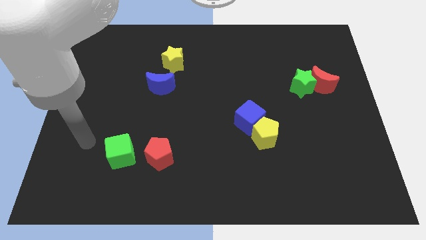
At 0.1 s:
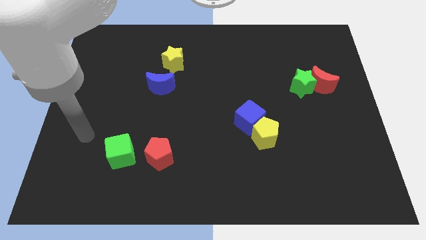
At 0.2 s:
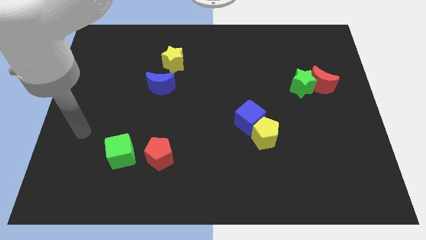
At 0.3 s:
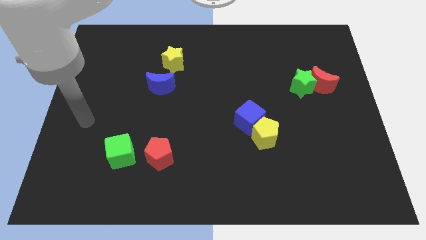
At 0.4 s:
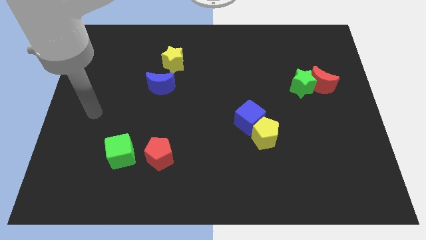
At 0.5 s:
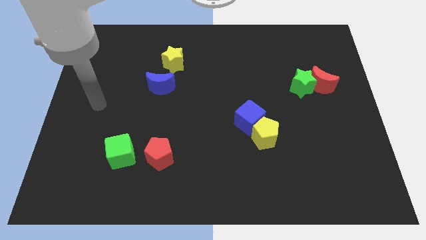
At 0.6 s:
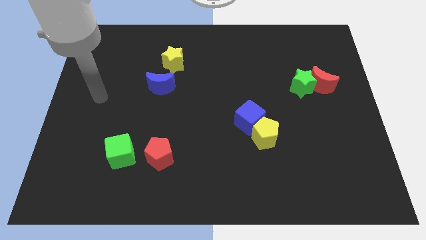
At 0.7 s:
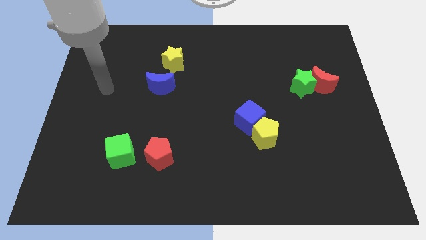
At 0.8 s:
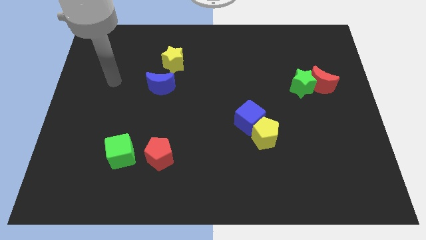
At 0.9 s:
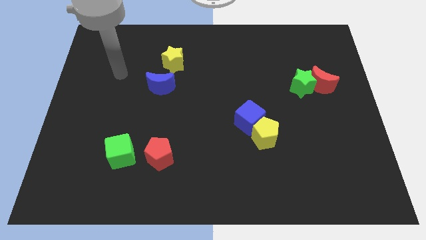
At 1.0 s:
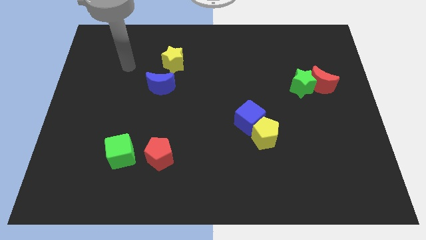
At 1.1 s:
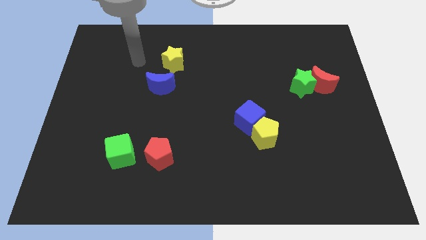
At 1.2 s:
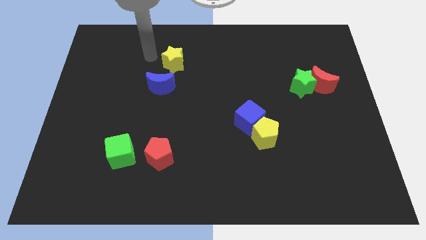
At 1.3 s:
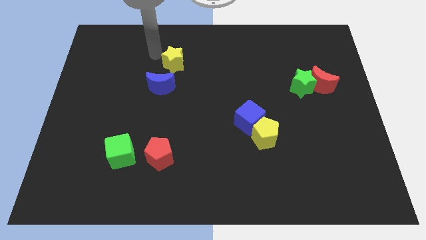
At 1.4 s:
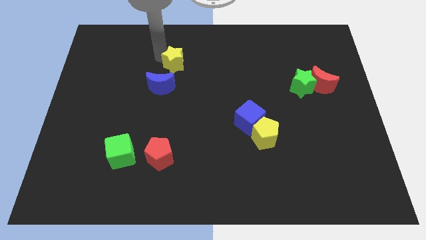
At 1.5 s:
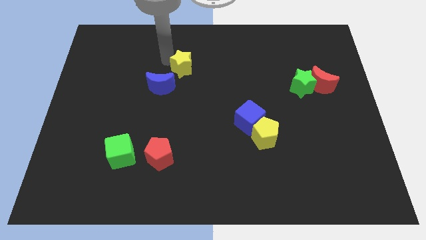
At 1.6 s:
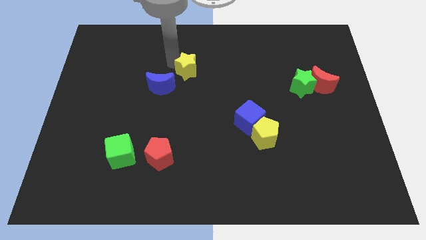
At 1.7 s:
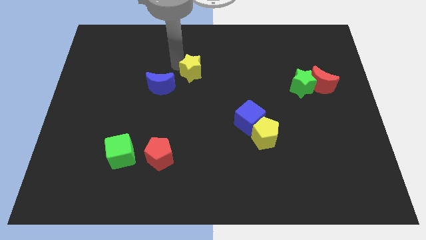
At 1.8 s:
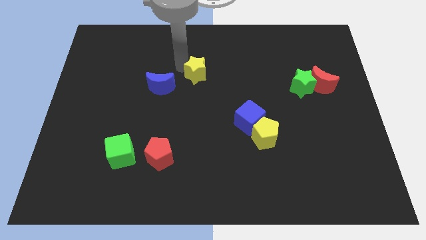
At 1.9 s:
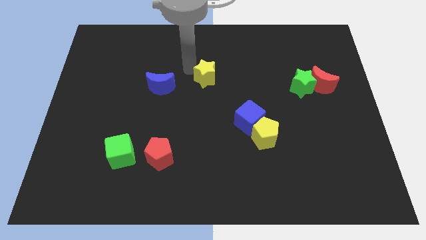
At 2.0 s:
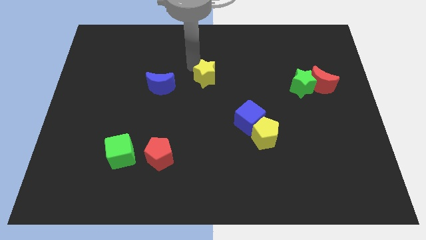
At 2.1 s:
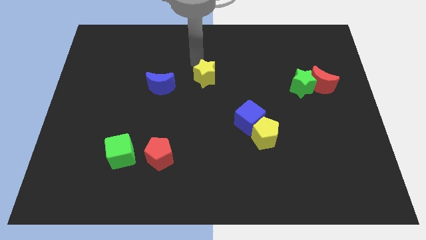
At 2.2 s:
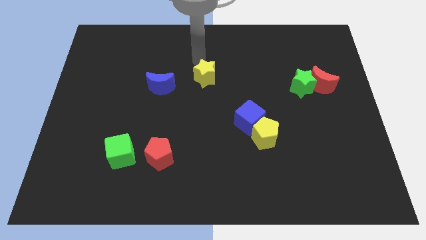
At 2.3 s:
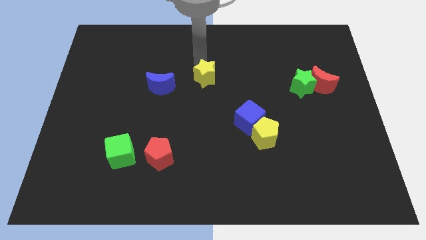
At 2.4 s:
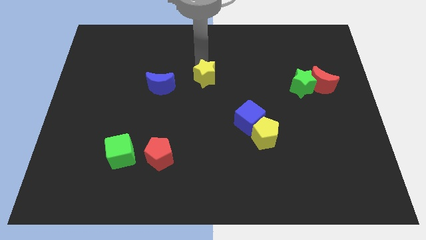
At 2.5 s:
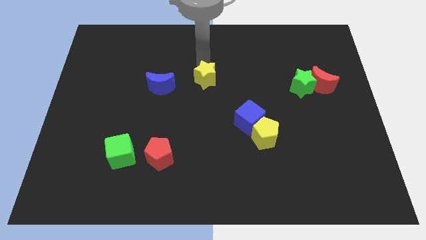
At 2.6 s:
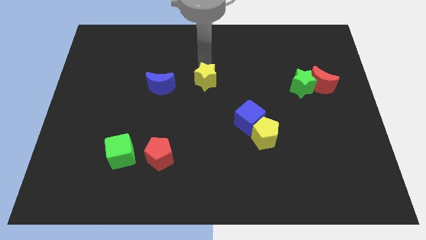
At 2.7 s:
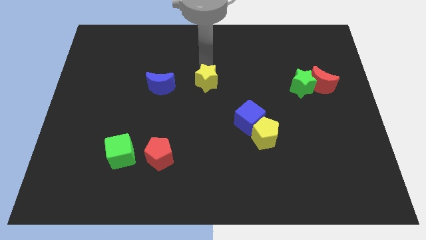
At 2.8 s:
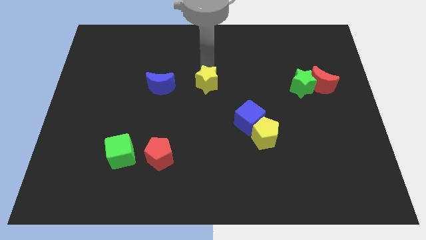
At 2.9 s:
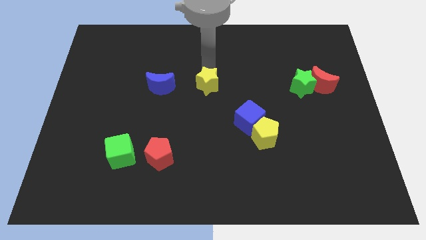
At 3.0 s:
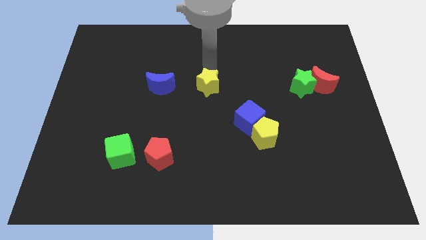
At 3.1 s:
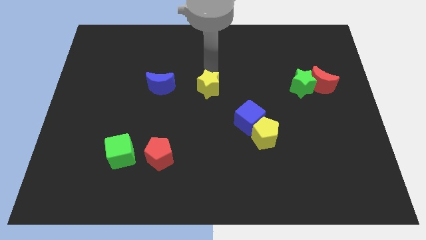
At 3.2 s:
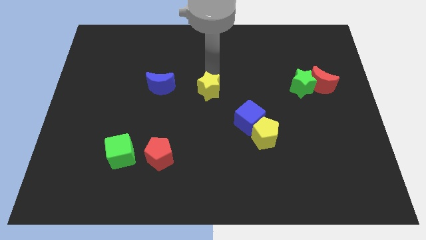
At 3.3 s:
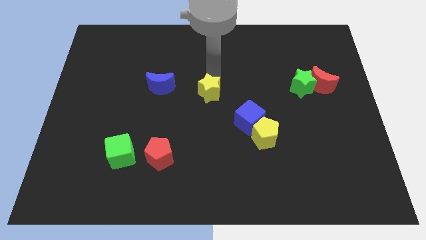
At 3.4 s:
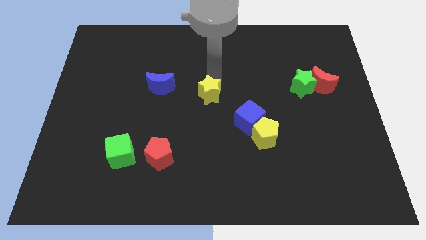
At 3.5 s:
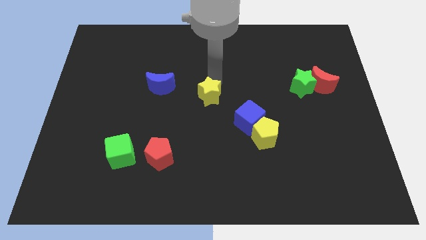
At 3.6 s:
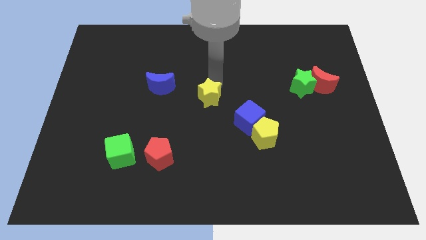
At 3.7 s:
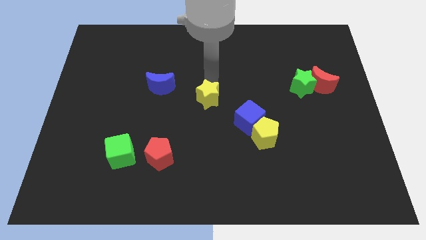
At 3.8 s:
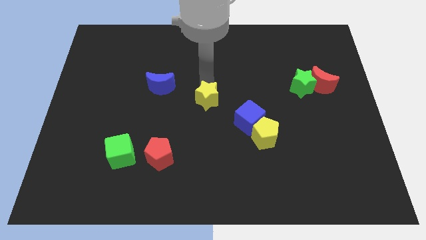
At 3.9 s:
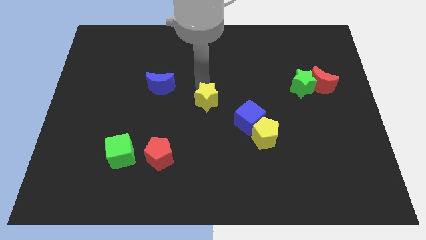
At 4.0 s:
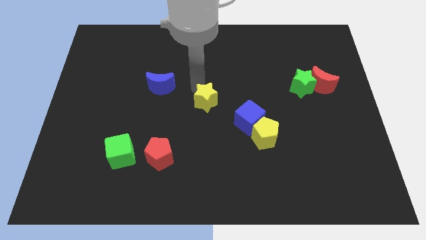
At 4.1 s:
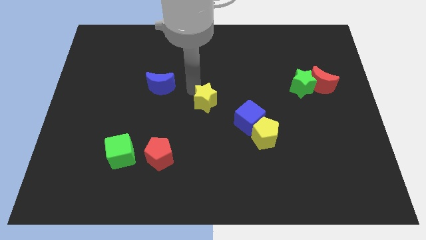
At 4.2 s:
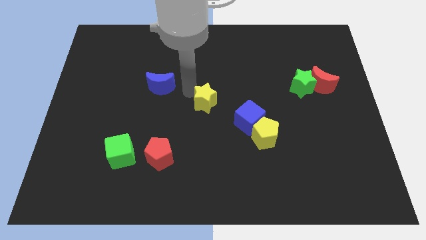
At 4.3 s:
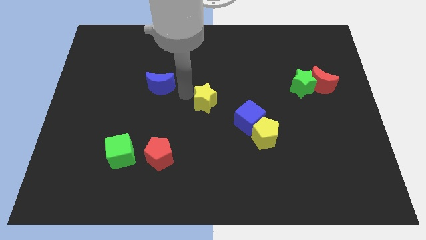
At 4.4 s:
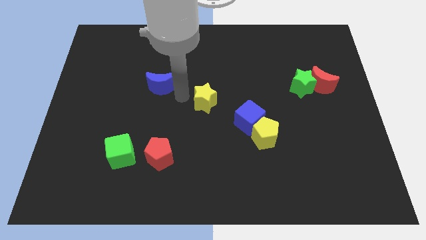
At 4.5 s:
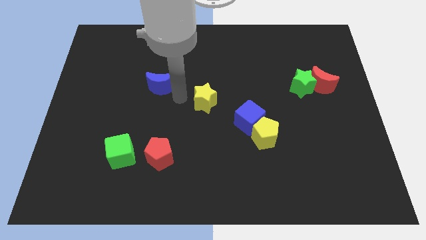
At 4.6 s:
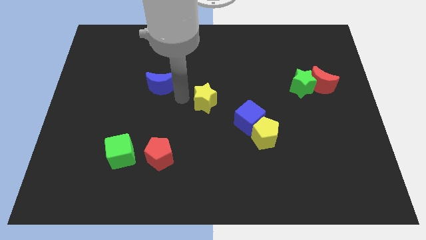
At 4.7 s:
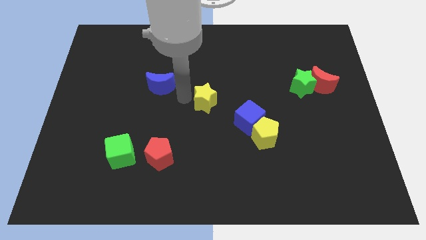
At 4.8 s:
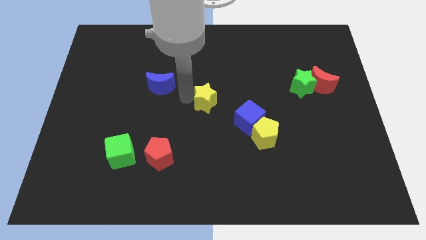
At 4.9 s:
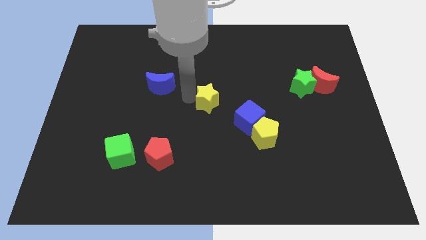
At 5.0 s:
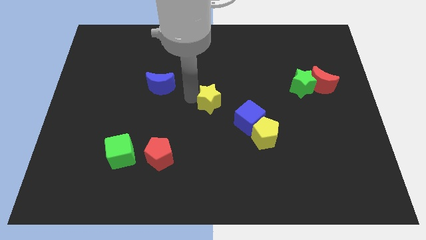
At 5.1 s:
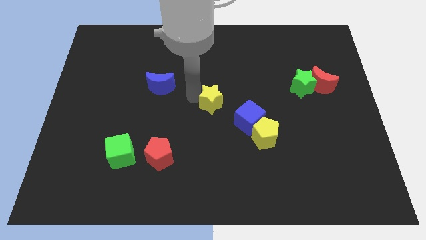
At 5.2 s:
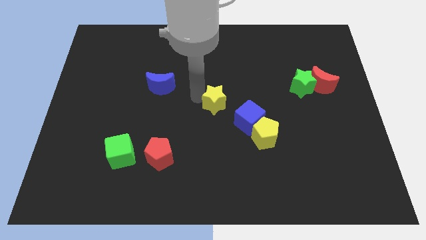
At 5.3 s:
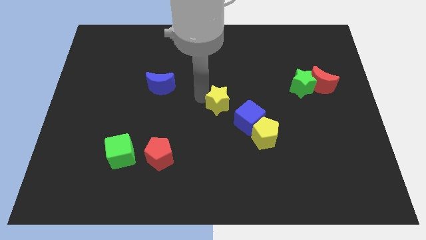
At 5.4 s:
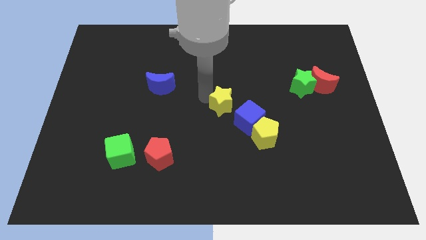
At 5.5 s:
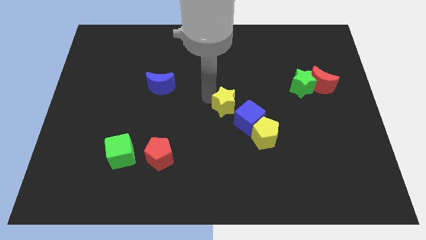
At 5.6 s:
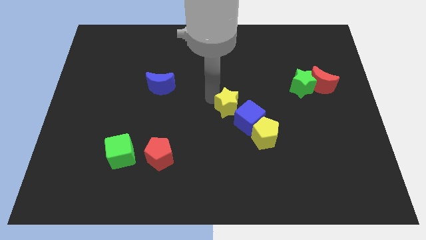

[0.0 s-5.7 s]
slide the yellow star to the blue cube

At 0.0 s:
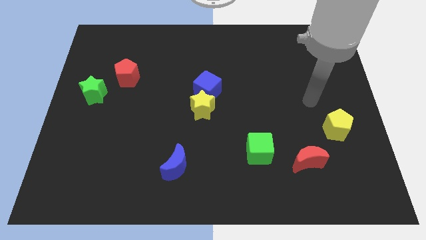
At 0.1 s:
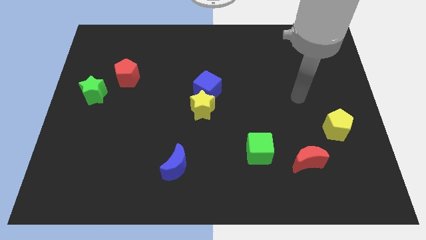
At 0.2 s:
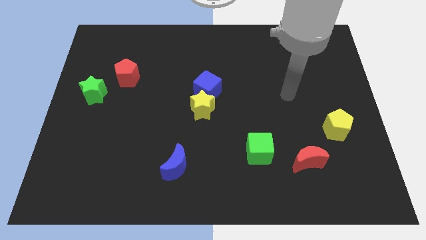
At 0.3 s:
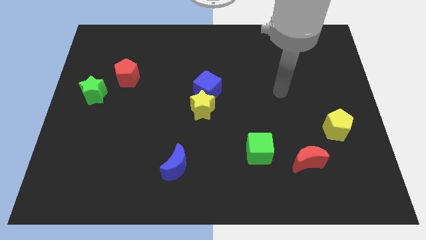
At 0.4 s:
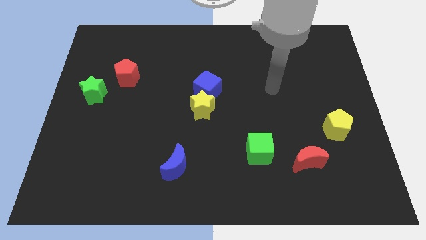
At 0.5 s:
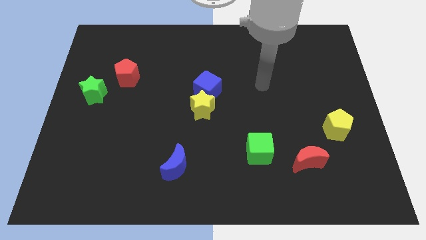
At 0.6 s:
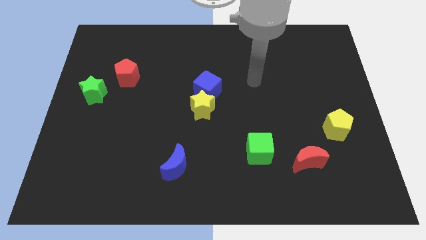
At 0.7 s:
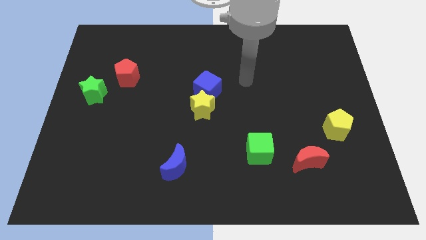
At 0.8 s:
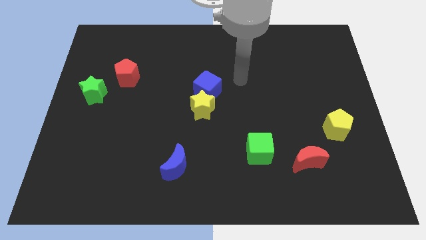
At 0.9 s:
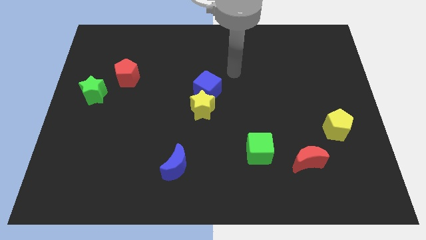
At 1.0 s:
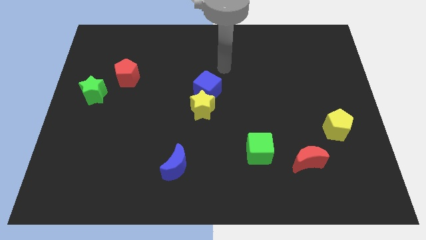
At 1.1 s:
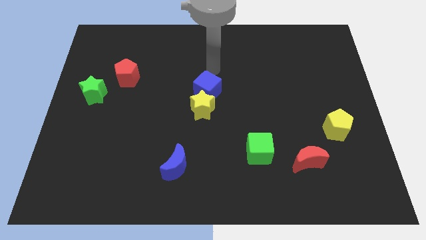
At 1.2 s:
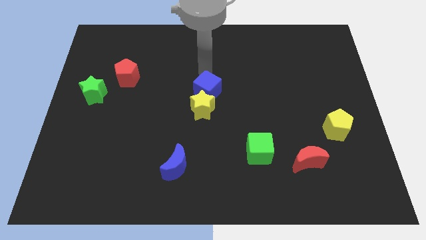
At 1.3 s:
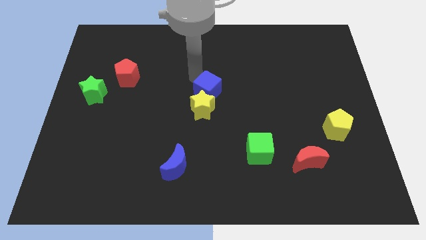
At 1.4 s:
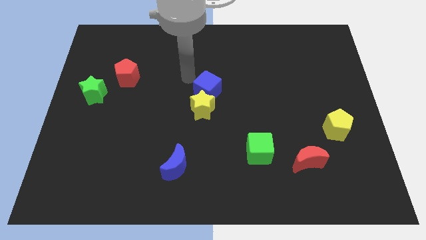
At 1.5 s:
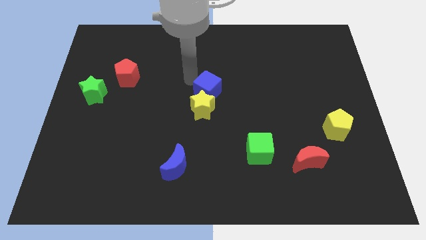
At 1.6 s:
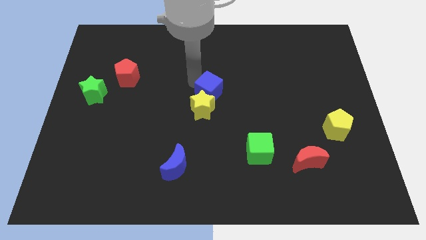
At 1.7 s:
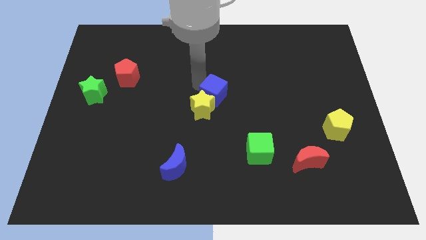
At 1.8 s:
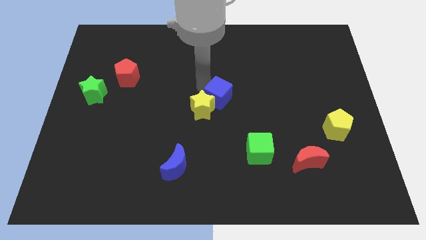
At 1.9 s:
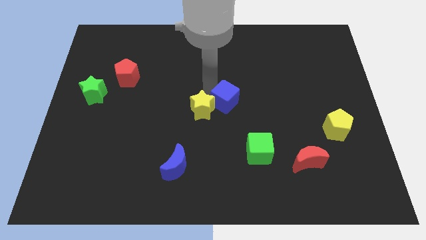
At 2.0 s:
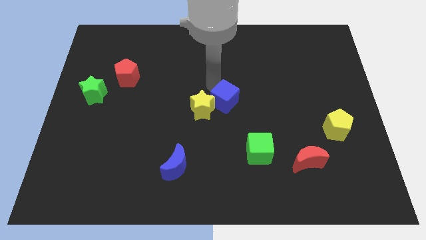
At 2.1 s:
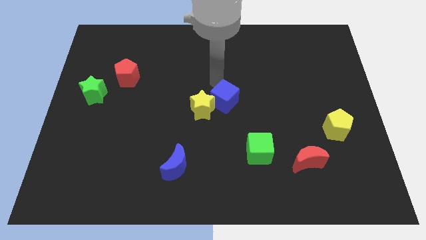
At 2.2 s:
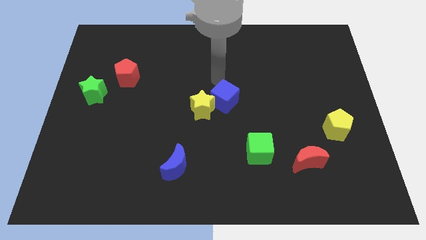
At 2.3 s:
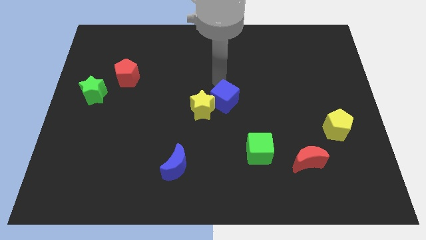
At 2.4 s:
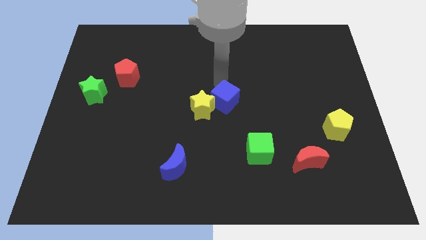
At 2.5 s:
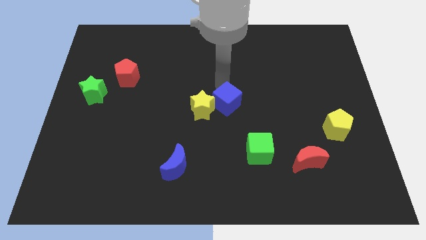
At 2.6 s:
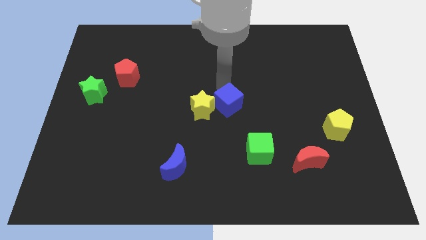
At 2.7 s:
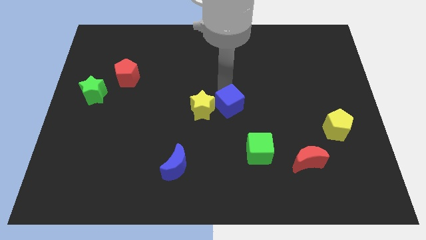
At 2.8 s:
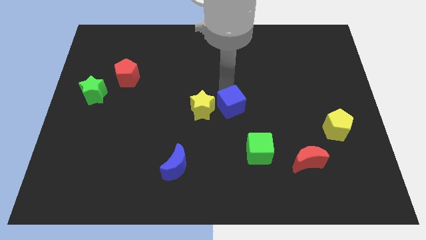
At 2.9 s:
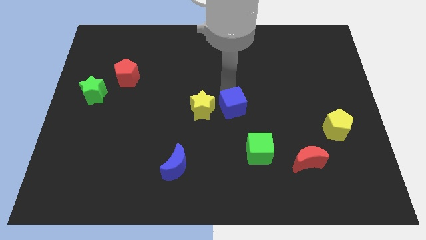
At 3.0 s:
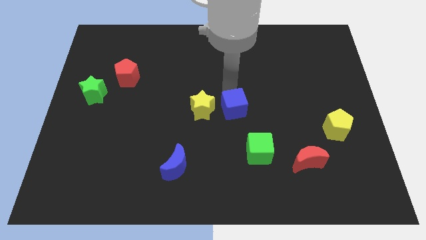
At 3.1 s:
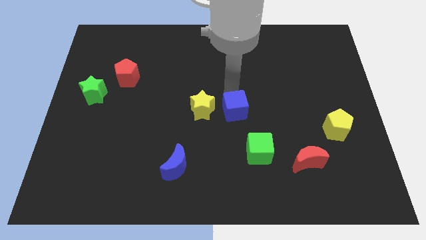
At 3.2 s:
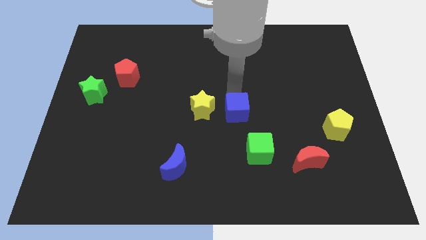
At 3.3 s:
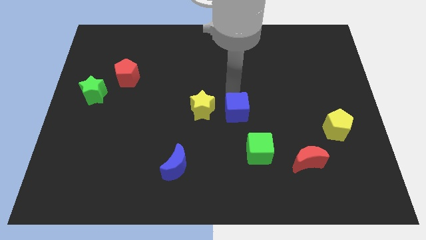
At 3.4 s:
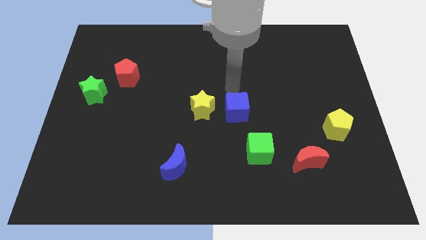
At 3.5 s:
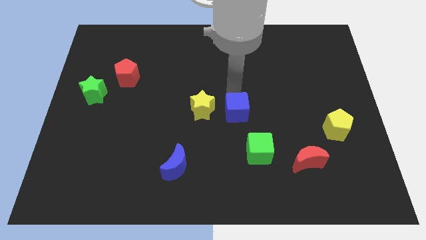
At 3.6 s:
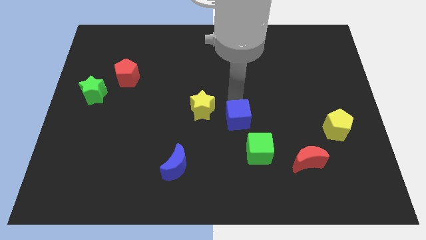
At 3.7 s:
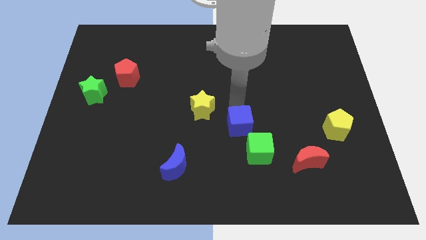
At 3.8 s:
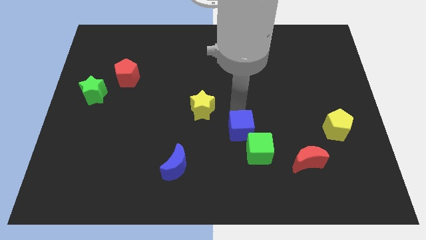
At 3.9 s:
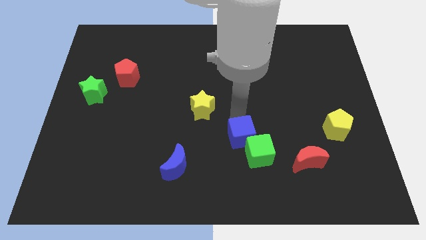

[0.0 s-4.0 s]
put the blue cube close to the green cube
